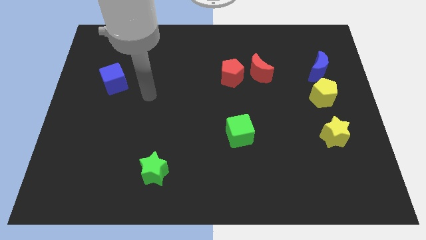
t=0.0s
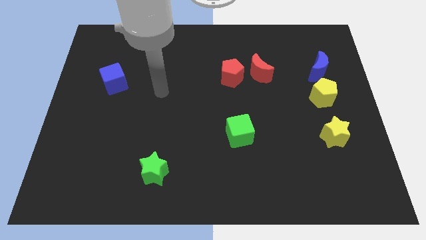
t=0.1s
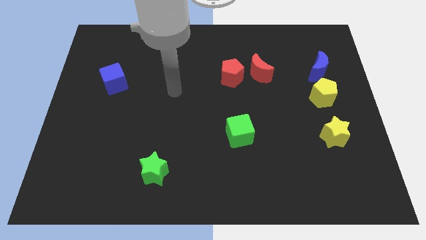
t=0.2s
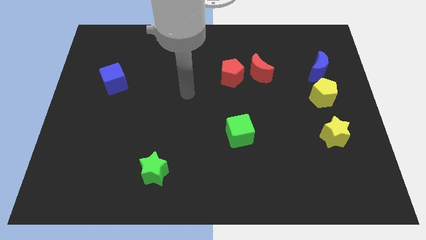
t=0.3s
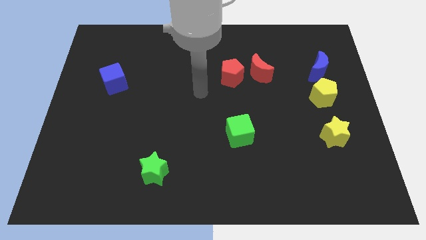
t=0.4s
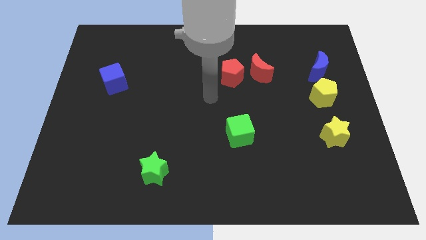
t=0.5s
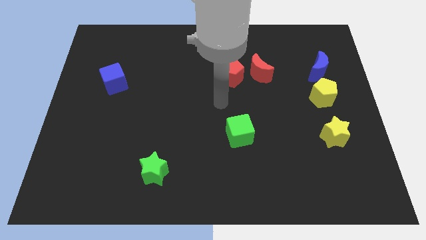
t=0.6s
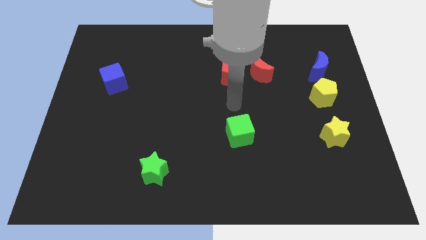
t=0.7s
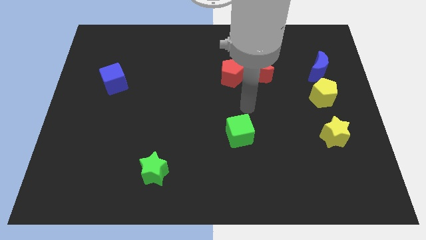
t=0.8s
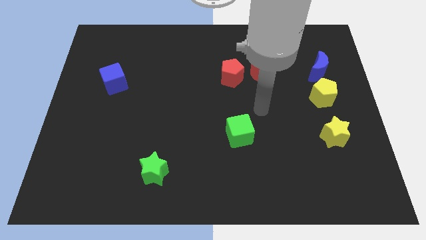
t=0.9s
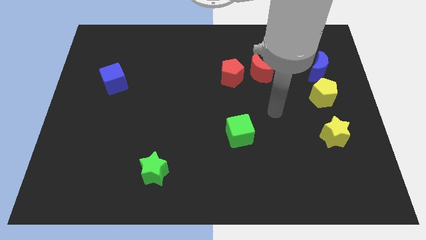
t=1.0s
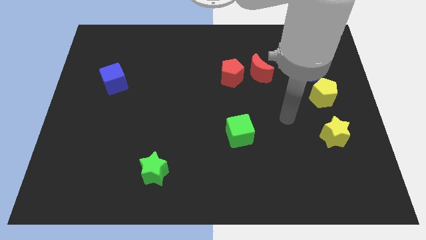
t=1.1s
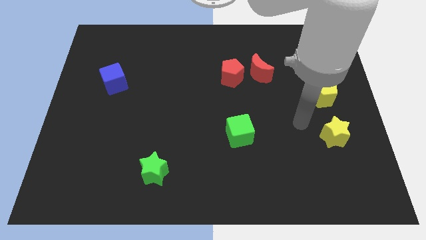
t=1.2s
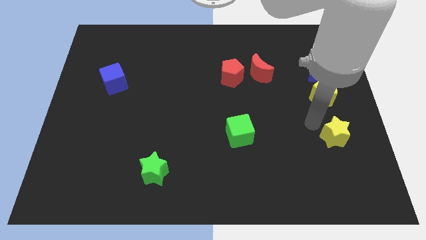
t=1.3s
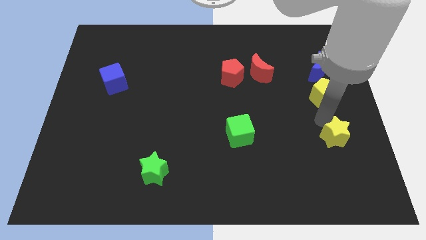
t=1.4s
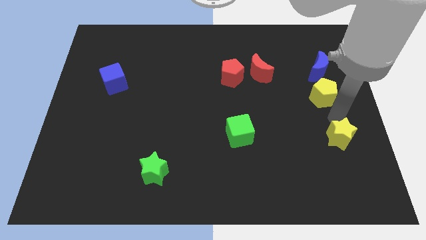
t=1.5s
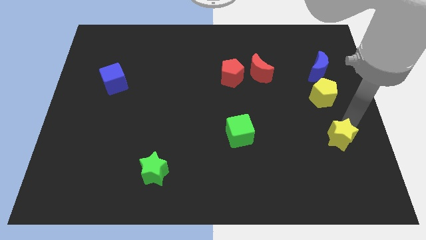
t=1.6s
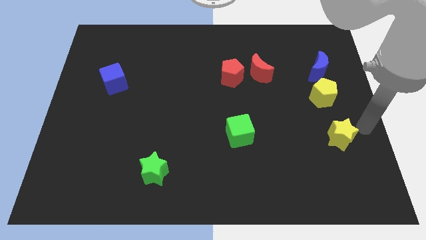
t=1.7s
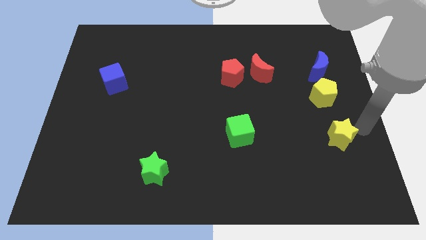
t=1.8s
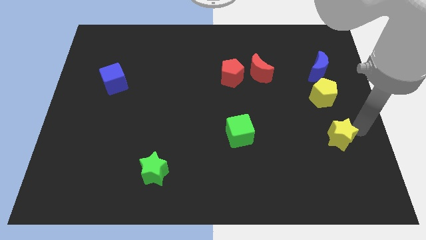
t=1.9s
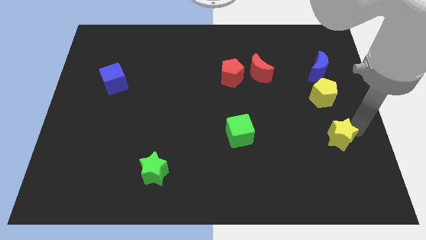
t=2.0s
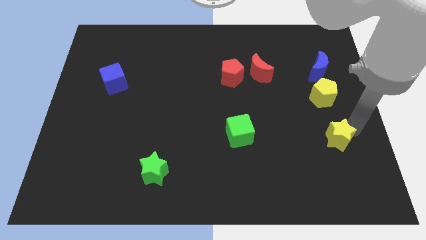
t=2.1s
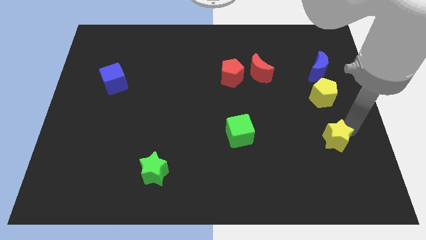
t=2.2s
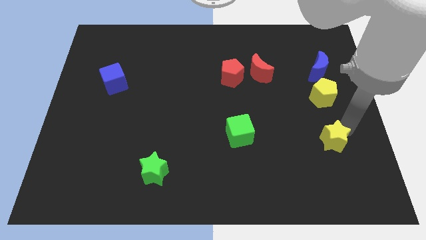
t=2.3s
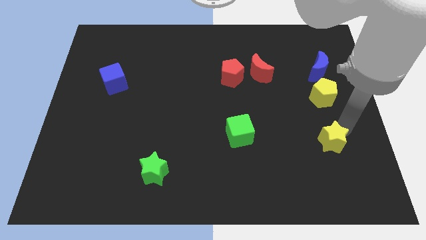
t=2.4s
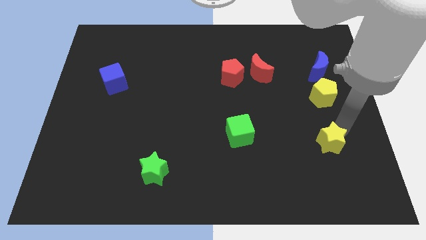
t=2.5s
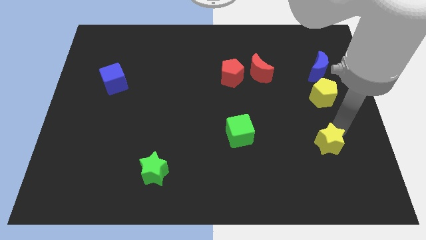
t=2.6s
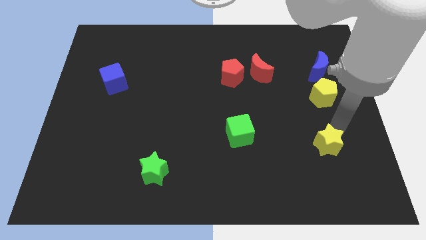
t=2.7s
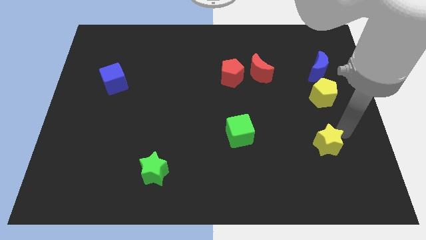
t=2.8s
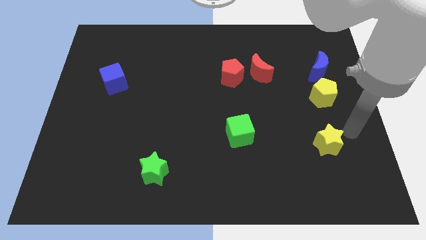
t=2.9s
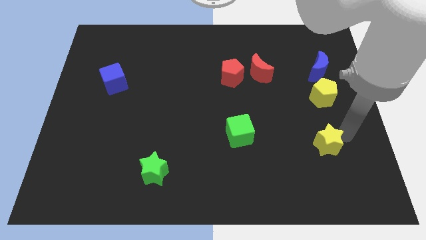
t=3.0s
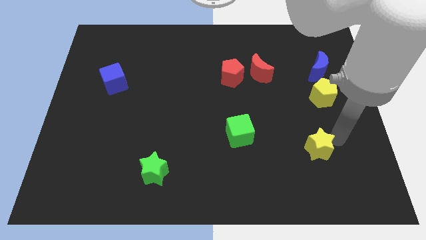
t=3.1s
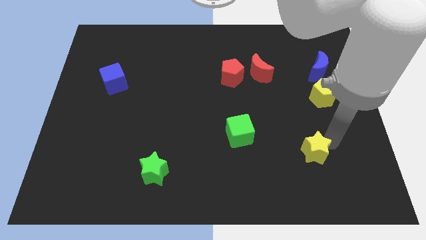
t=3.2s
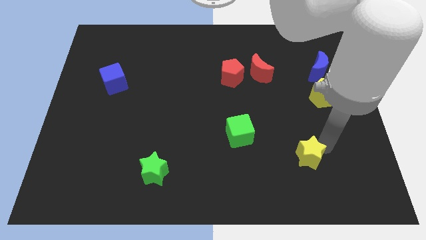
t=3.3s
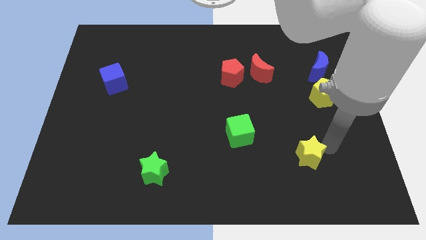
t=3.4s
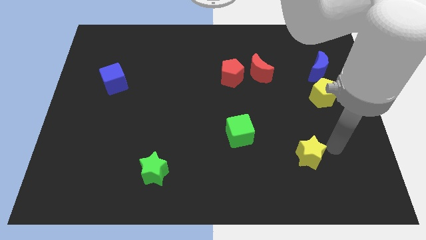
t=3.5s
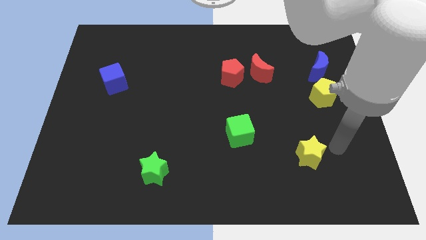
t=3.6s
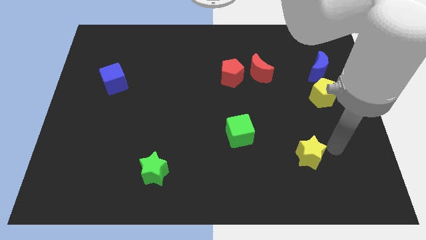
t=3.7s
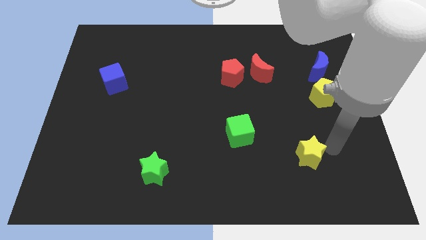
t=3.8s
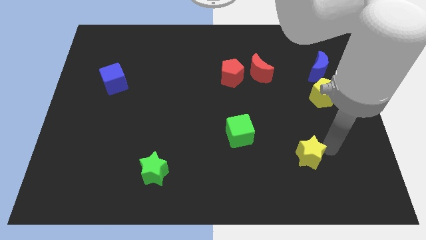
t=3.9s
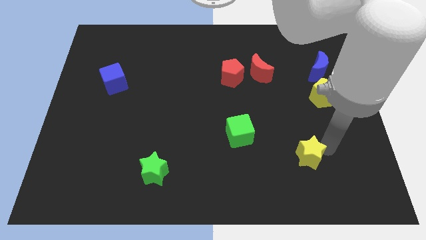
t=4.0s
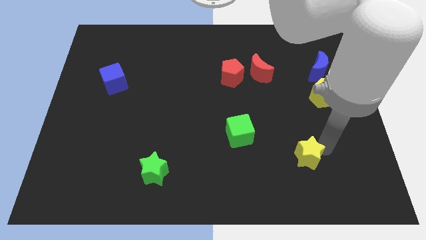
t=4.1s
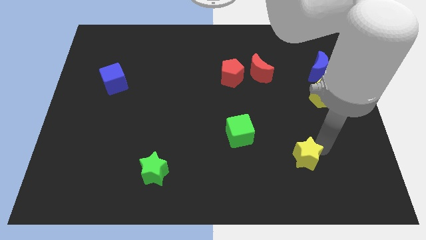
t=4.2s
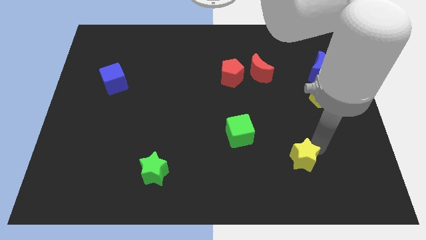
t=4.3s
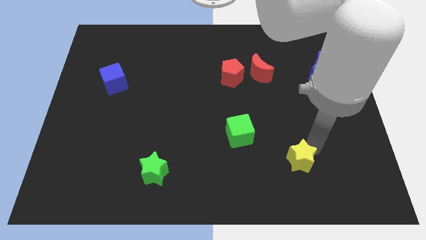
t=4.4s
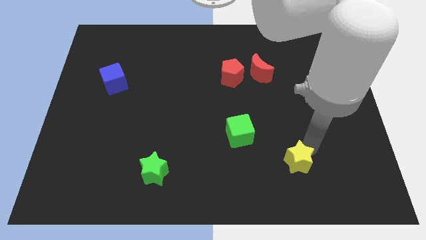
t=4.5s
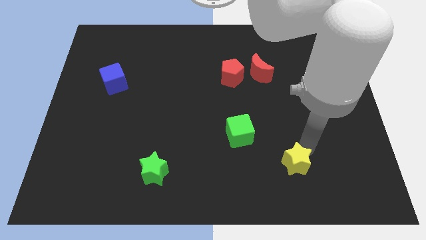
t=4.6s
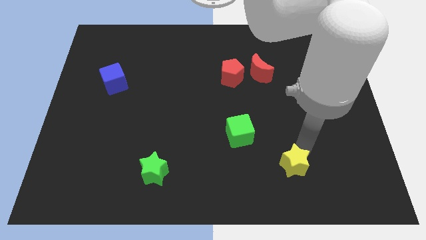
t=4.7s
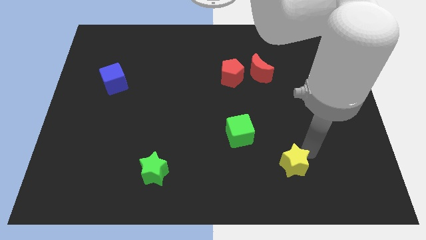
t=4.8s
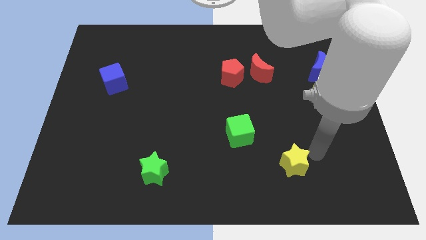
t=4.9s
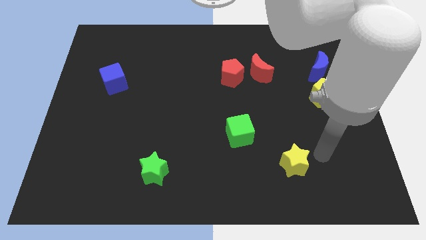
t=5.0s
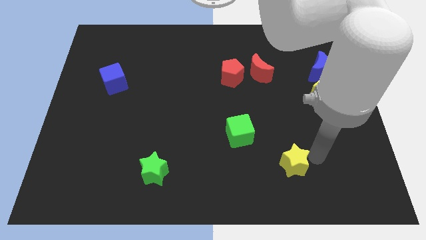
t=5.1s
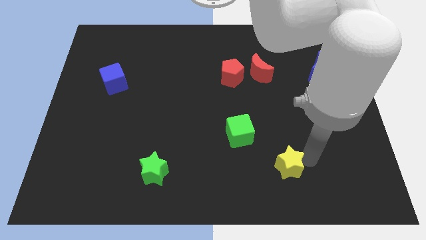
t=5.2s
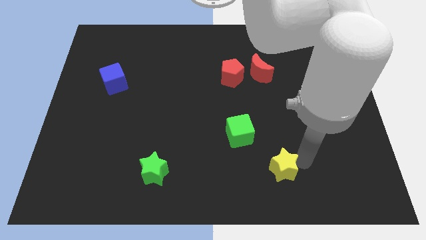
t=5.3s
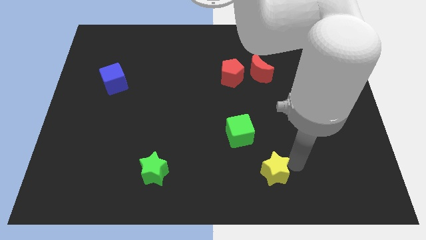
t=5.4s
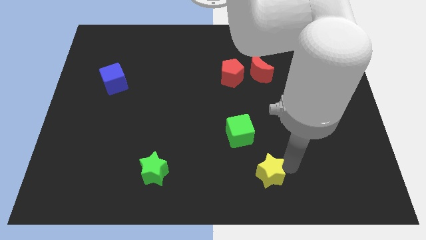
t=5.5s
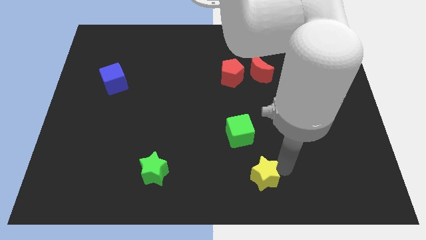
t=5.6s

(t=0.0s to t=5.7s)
put the yellow star to the bottom

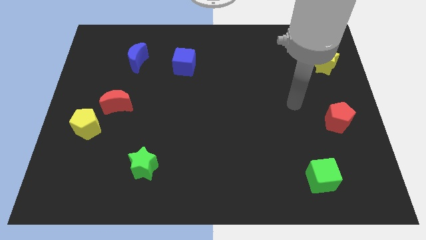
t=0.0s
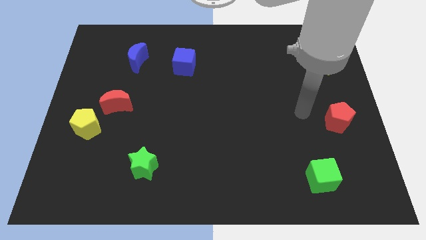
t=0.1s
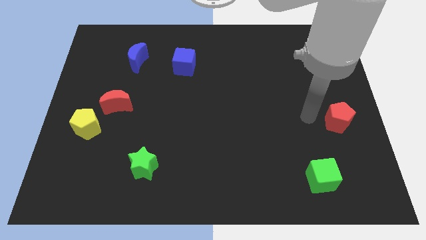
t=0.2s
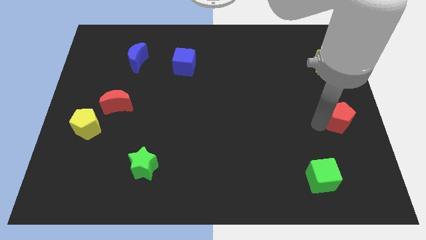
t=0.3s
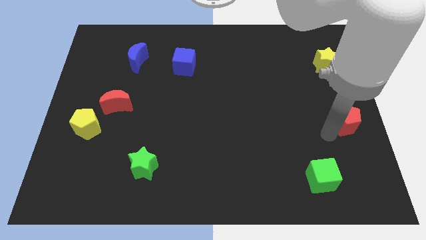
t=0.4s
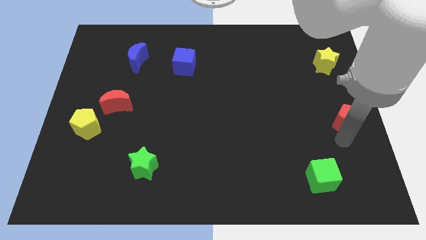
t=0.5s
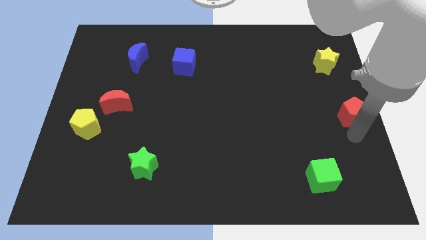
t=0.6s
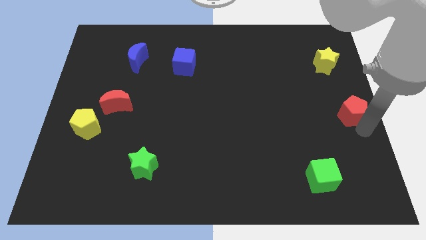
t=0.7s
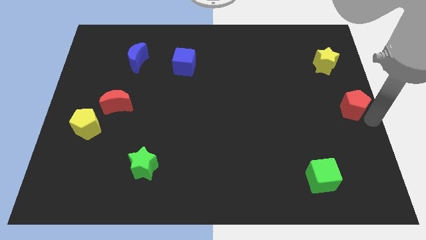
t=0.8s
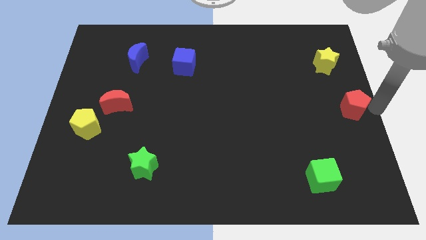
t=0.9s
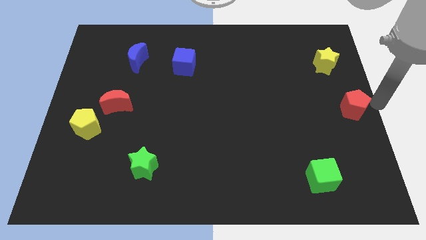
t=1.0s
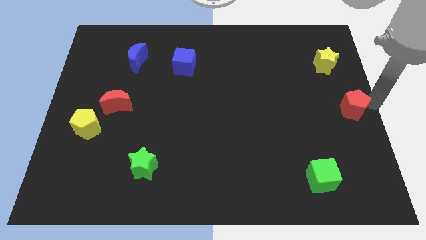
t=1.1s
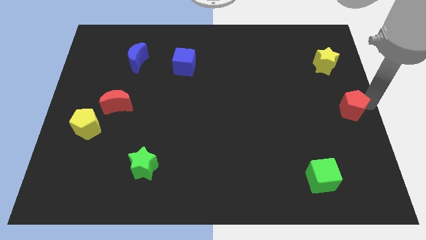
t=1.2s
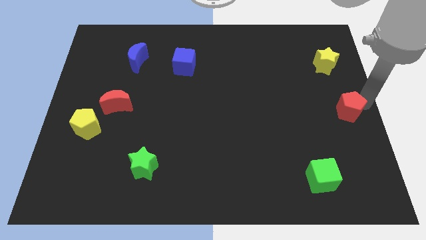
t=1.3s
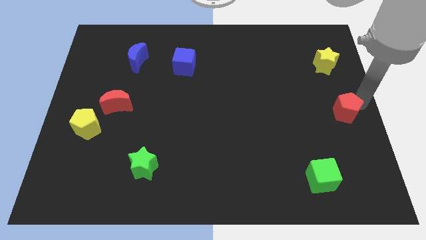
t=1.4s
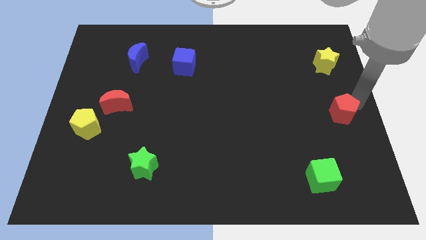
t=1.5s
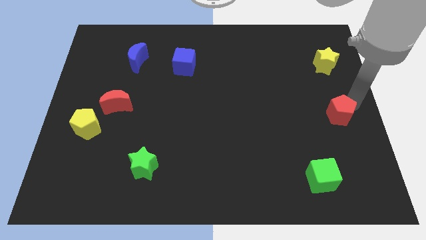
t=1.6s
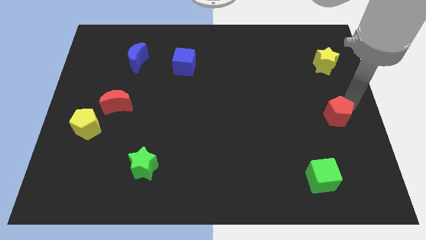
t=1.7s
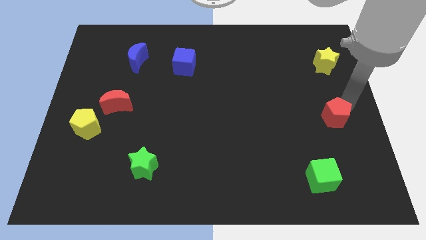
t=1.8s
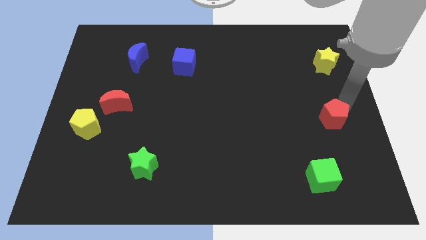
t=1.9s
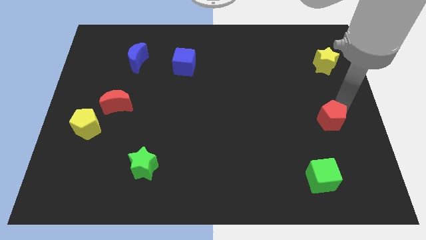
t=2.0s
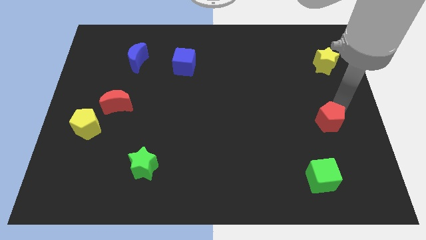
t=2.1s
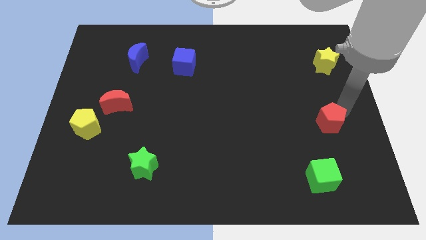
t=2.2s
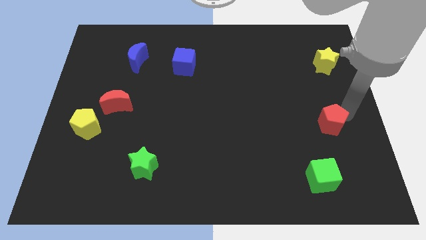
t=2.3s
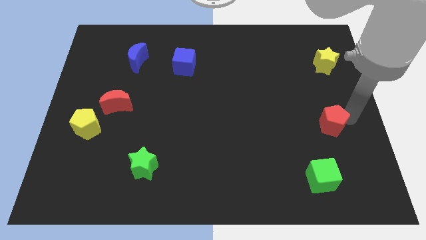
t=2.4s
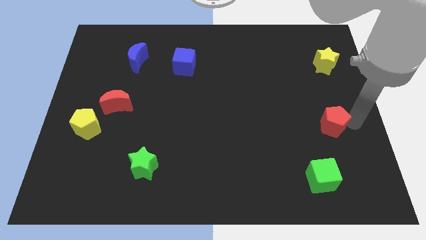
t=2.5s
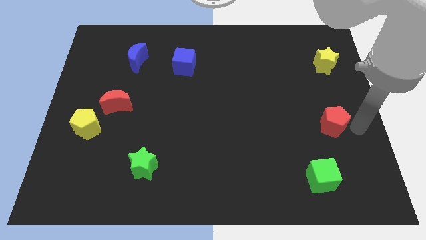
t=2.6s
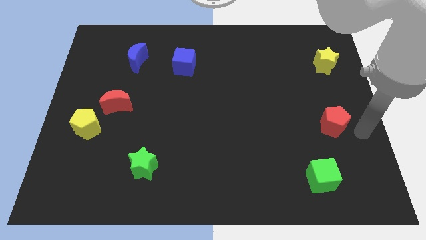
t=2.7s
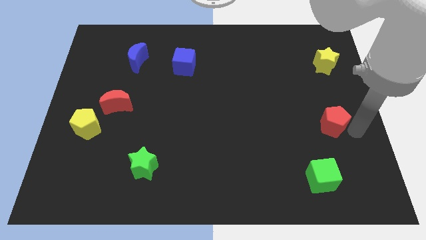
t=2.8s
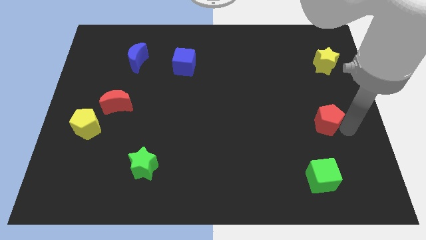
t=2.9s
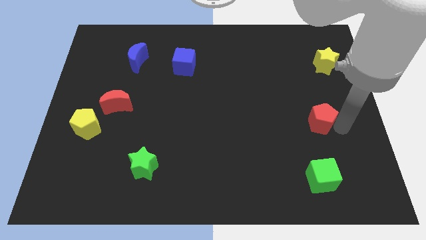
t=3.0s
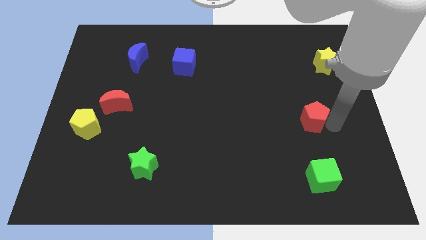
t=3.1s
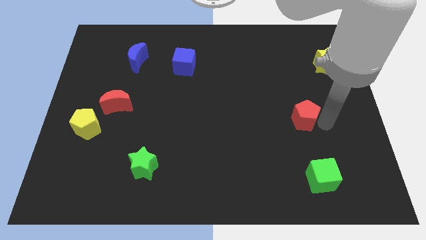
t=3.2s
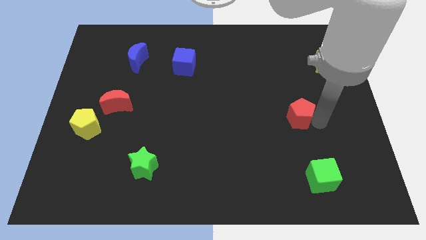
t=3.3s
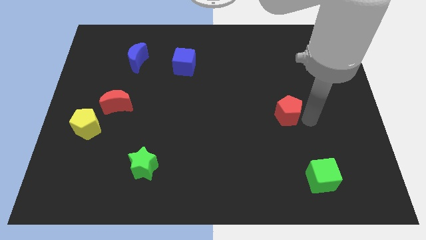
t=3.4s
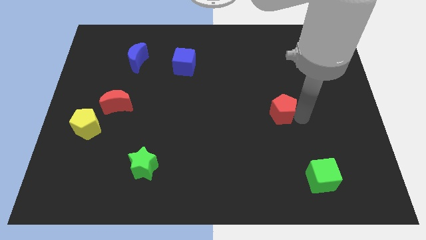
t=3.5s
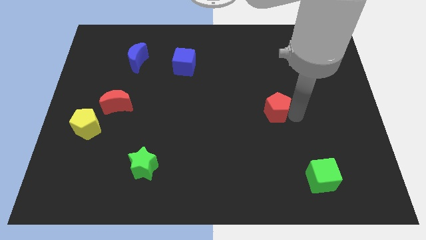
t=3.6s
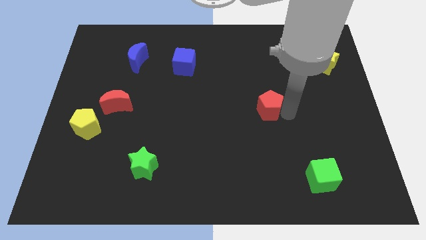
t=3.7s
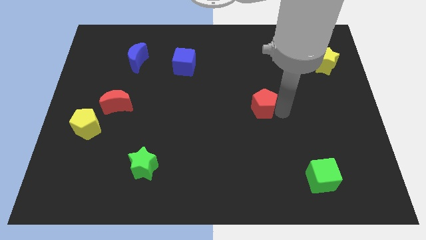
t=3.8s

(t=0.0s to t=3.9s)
move the red pentagon to the middle
